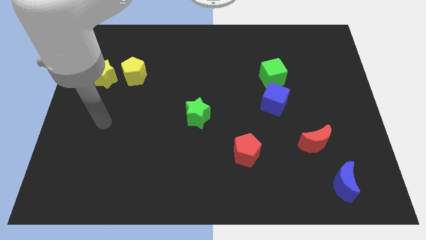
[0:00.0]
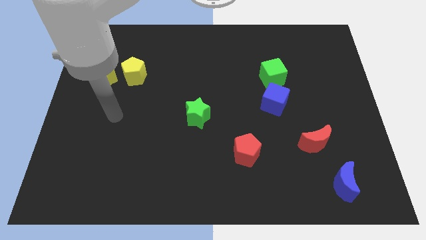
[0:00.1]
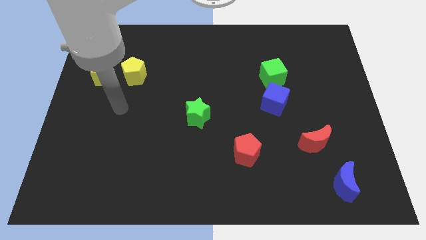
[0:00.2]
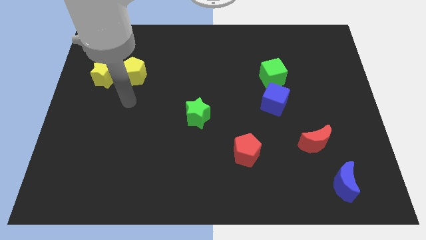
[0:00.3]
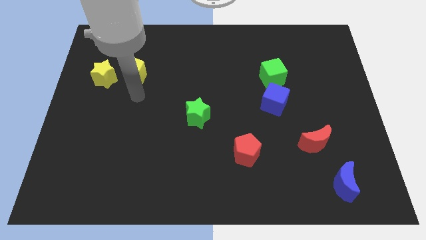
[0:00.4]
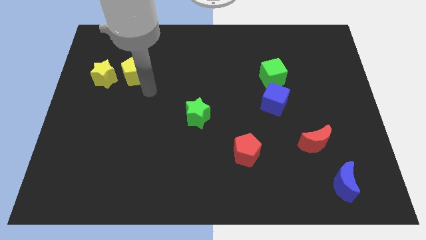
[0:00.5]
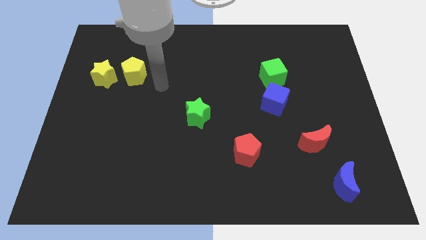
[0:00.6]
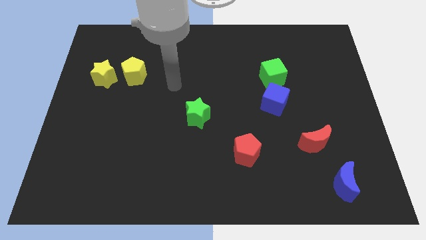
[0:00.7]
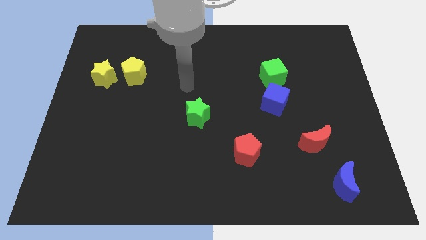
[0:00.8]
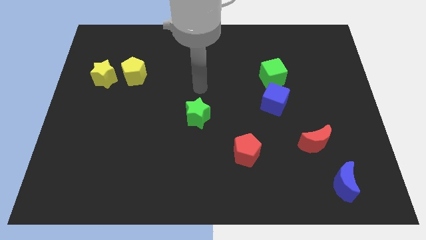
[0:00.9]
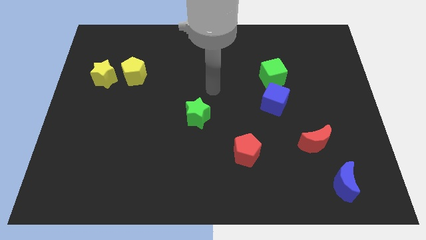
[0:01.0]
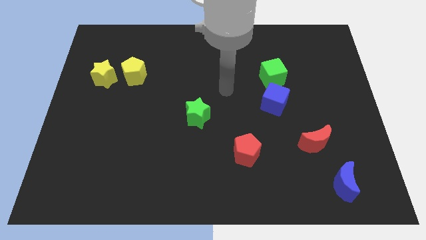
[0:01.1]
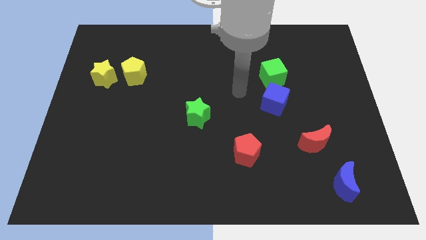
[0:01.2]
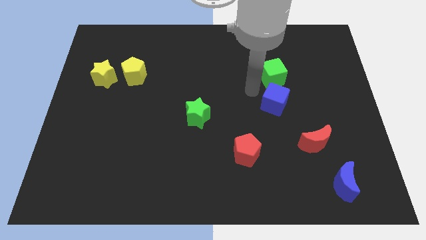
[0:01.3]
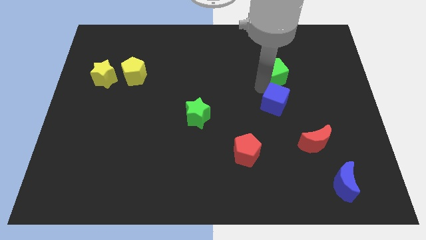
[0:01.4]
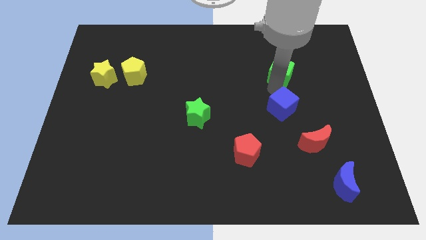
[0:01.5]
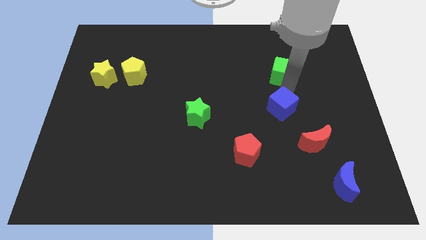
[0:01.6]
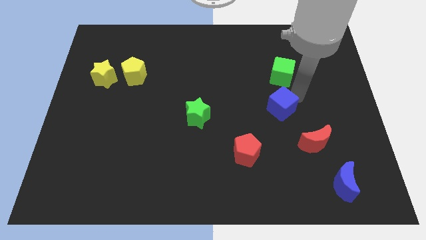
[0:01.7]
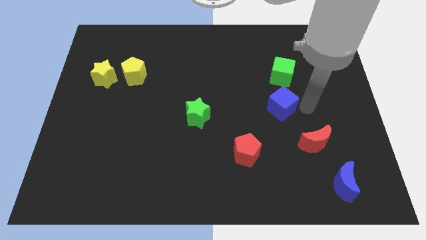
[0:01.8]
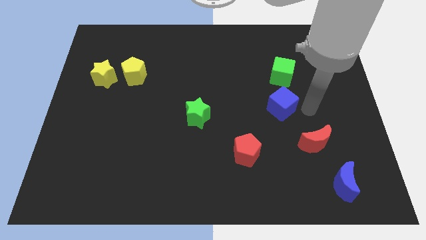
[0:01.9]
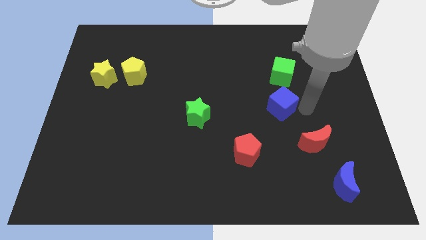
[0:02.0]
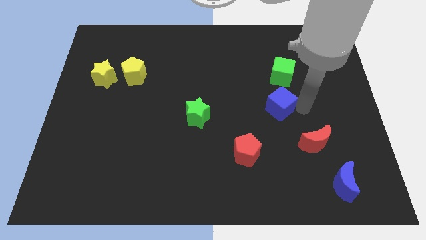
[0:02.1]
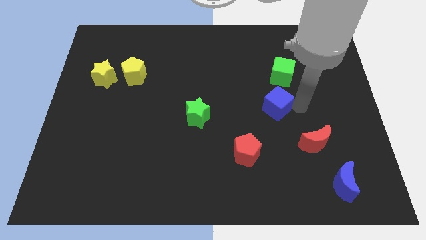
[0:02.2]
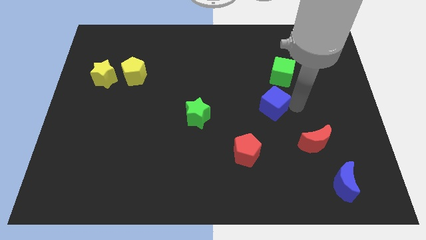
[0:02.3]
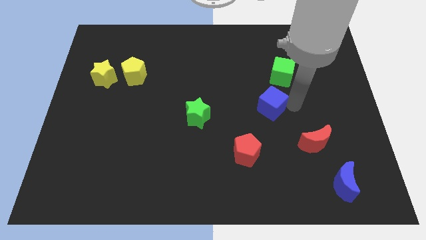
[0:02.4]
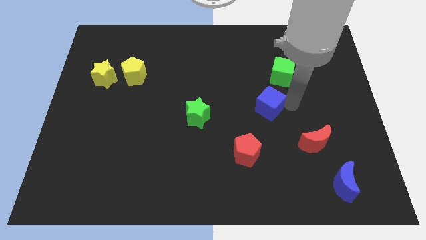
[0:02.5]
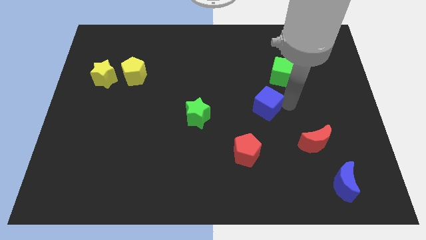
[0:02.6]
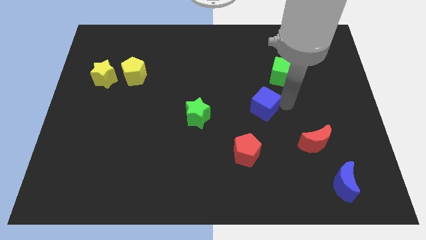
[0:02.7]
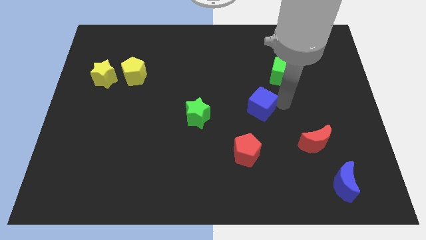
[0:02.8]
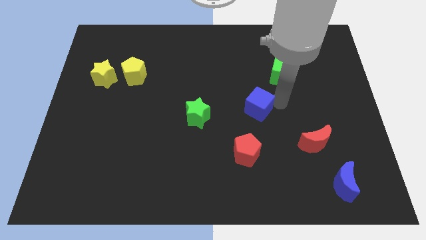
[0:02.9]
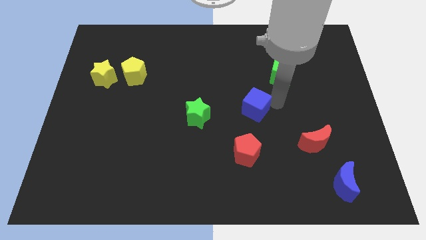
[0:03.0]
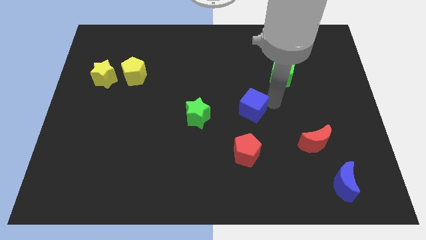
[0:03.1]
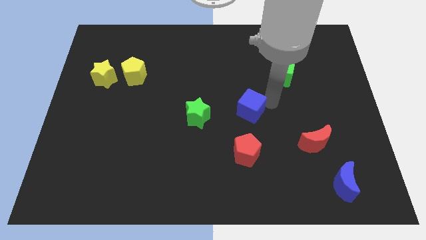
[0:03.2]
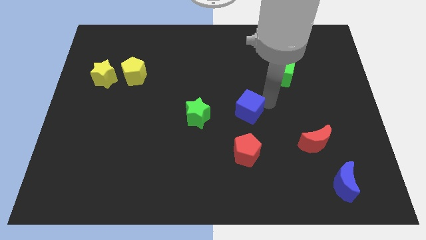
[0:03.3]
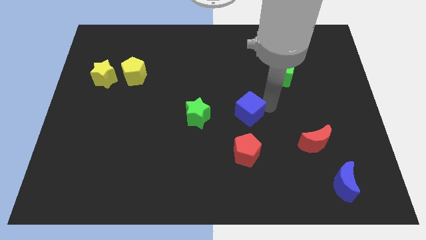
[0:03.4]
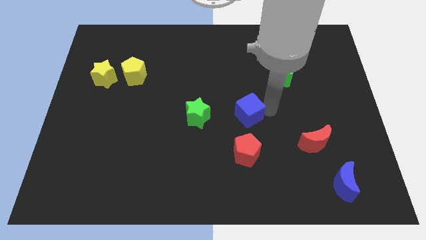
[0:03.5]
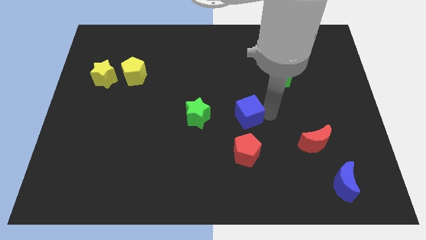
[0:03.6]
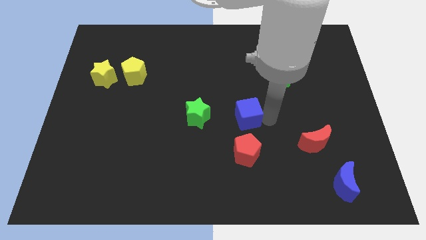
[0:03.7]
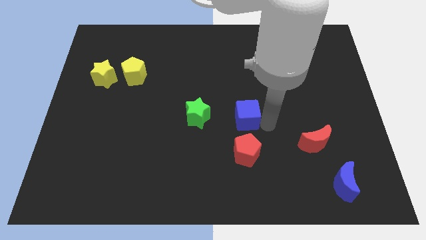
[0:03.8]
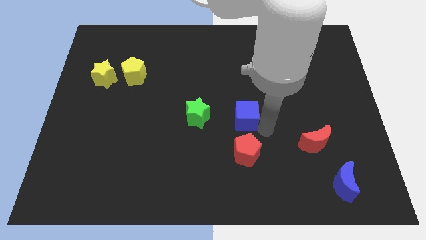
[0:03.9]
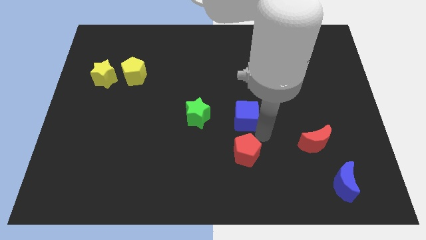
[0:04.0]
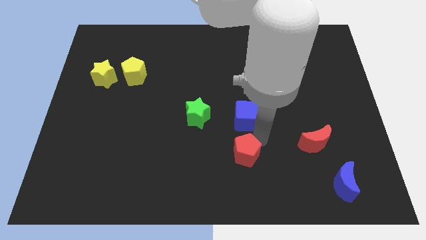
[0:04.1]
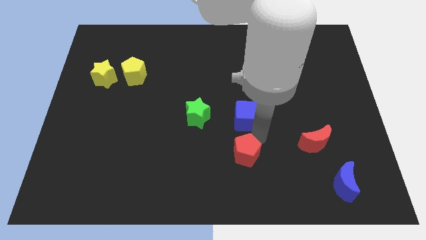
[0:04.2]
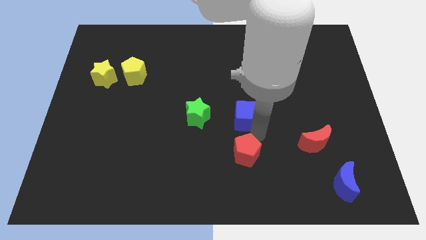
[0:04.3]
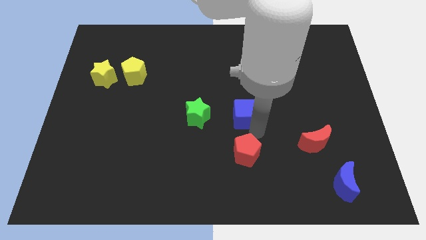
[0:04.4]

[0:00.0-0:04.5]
slightly move the blue cube left

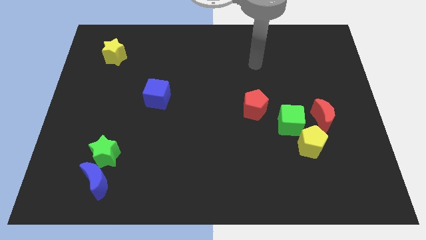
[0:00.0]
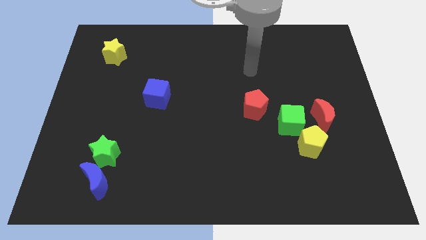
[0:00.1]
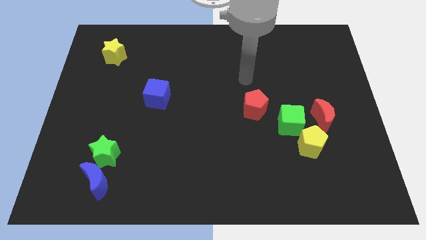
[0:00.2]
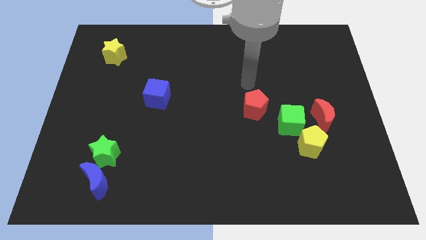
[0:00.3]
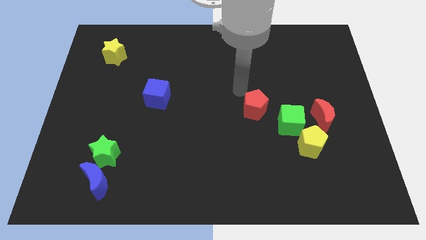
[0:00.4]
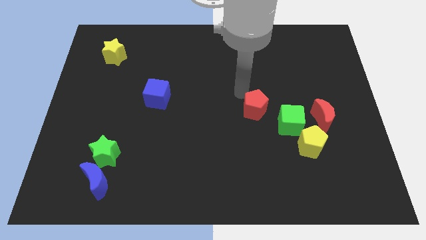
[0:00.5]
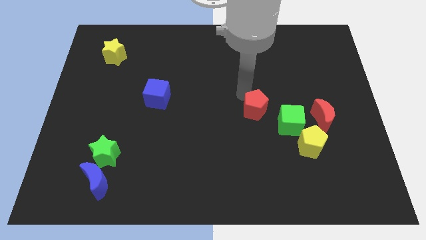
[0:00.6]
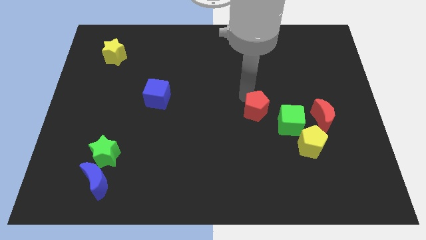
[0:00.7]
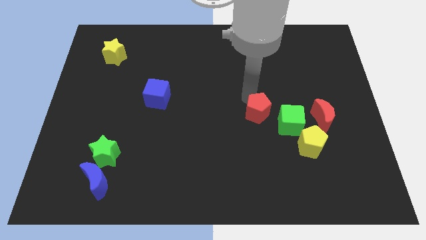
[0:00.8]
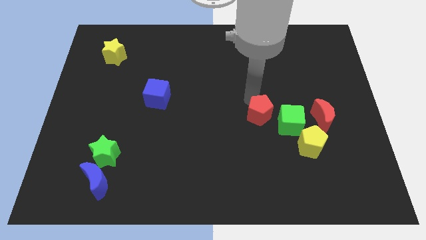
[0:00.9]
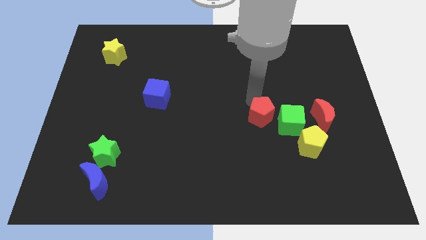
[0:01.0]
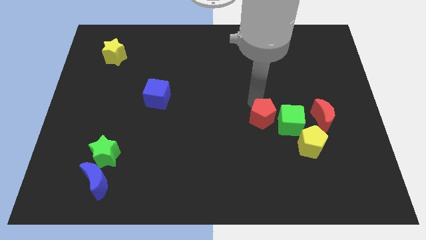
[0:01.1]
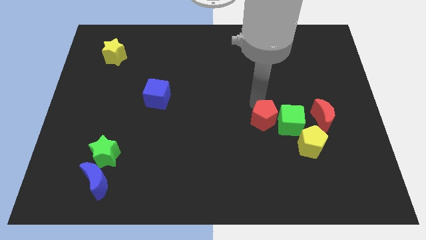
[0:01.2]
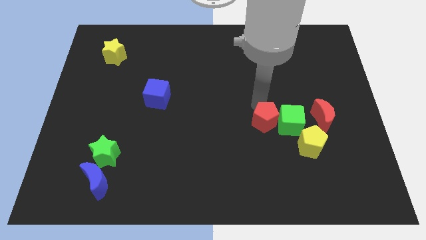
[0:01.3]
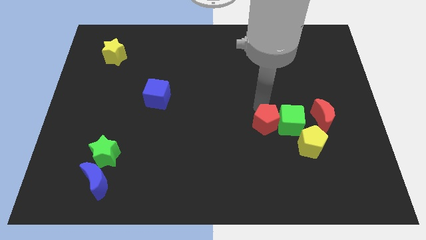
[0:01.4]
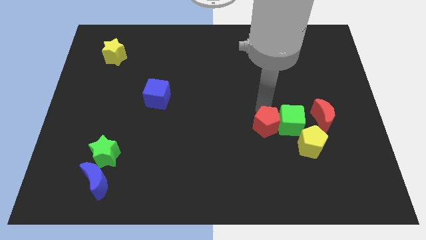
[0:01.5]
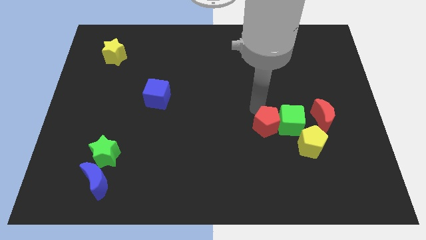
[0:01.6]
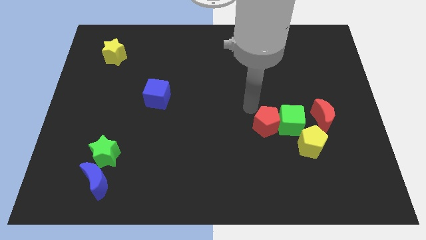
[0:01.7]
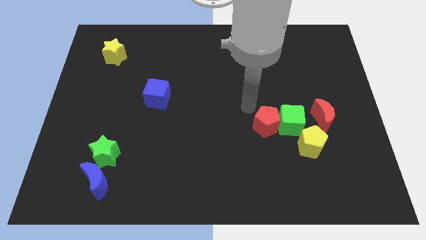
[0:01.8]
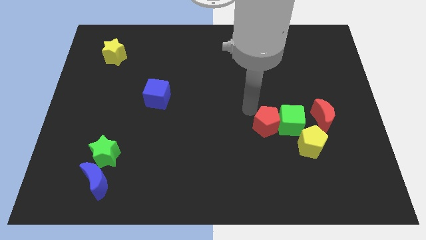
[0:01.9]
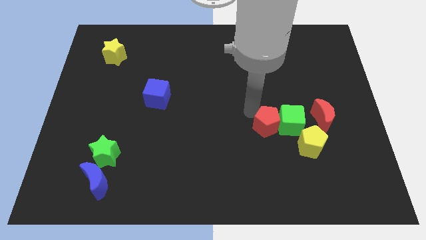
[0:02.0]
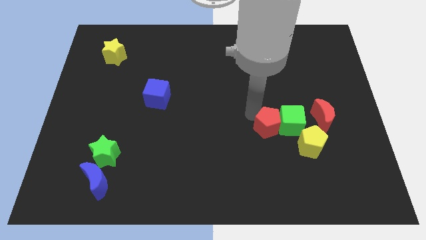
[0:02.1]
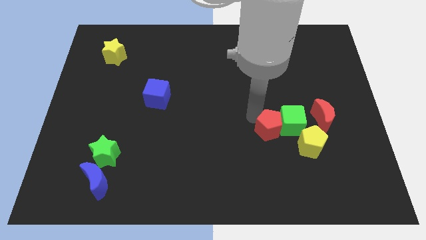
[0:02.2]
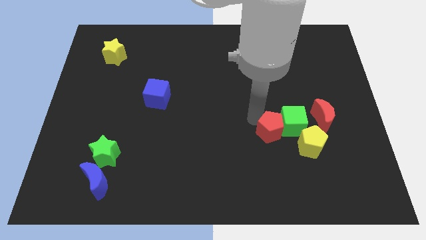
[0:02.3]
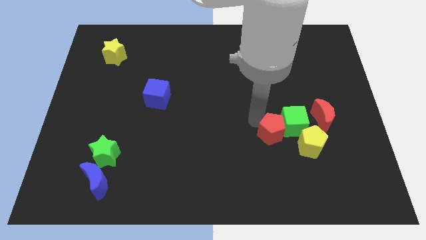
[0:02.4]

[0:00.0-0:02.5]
move the red pentagon somewhat downwards and to the right

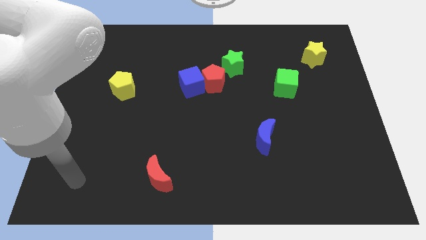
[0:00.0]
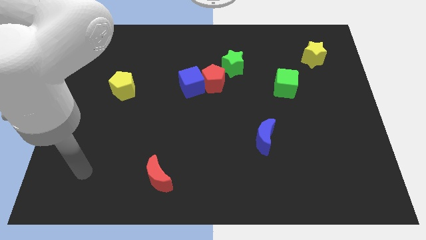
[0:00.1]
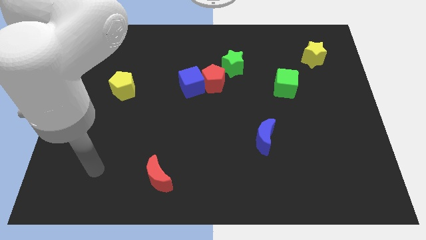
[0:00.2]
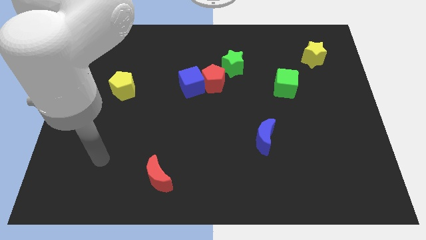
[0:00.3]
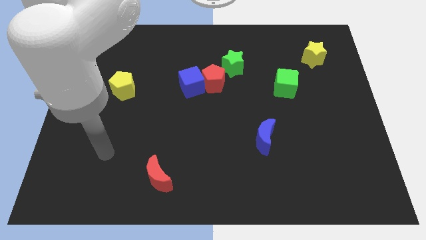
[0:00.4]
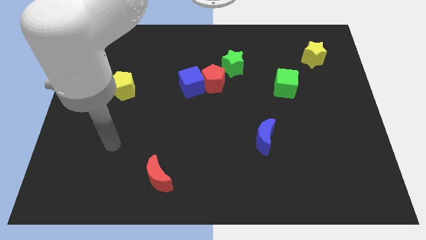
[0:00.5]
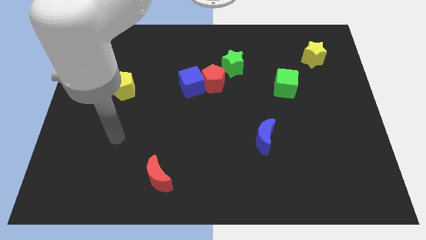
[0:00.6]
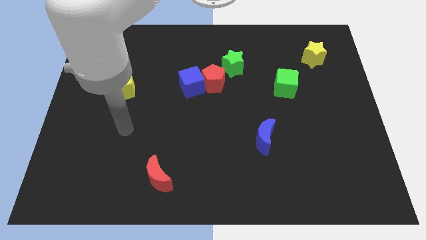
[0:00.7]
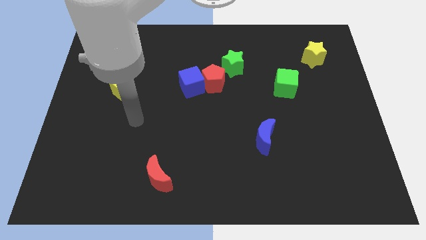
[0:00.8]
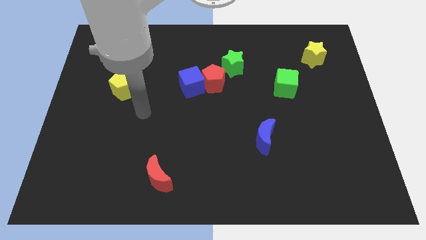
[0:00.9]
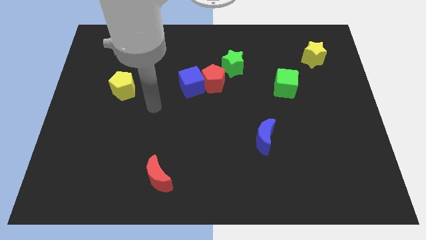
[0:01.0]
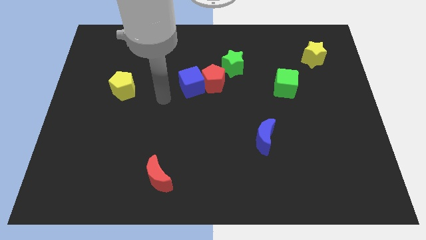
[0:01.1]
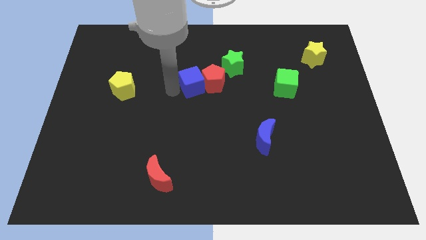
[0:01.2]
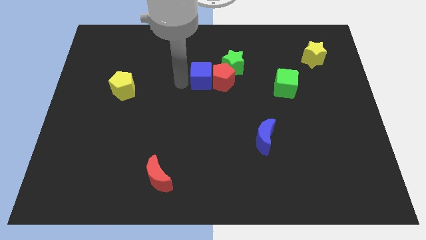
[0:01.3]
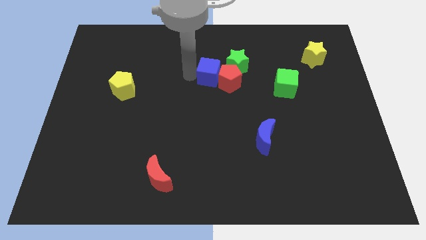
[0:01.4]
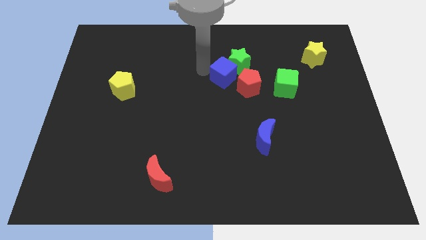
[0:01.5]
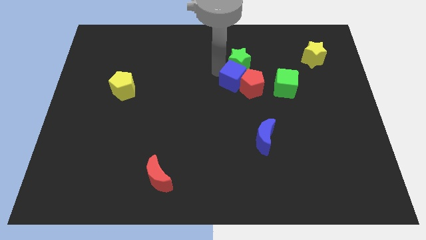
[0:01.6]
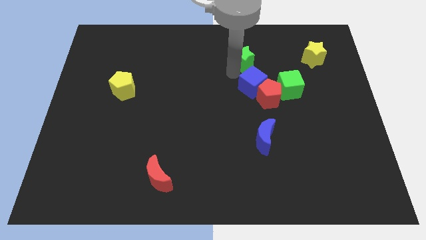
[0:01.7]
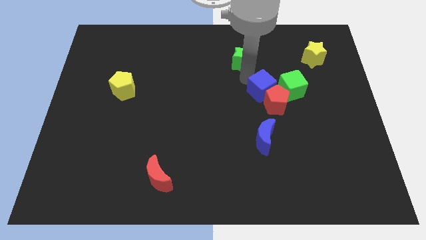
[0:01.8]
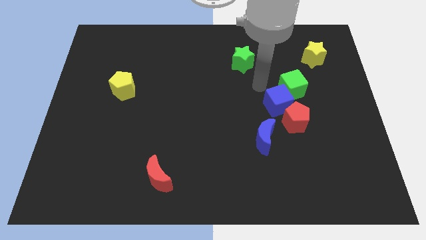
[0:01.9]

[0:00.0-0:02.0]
push the red pentagon downwards and right diagonally
